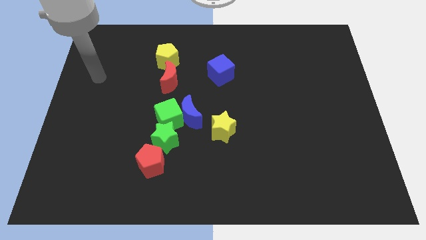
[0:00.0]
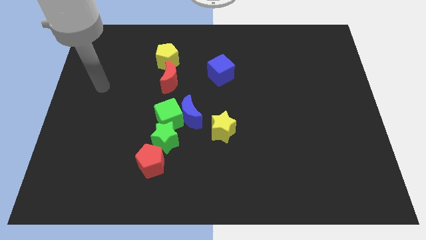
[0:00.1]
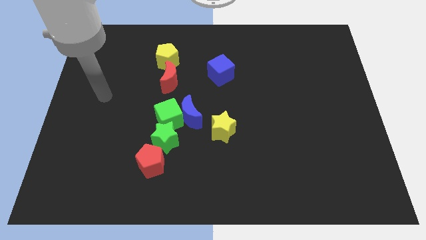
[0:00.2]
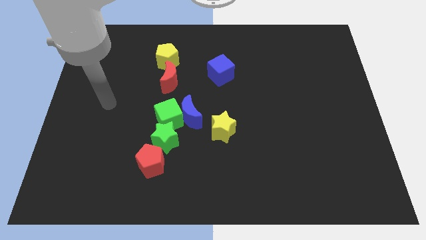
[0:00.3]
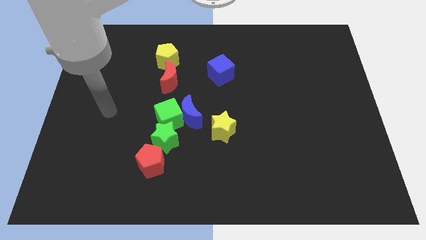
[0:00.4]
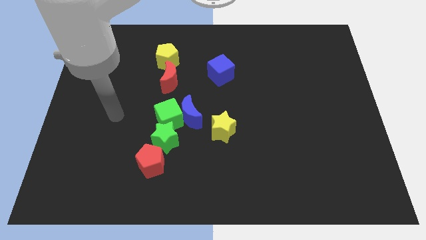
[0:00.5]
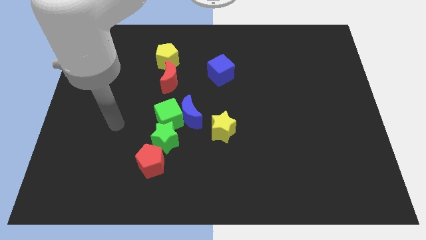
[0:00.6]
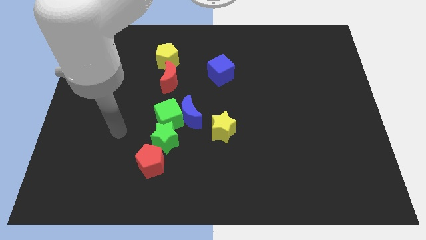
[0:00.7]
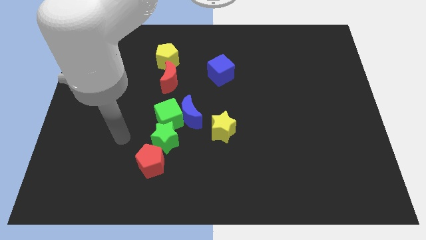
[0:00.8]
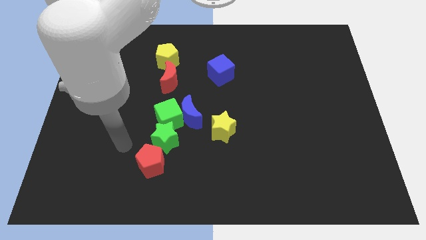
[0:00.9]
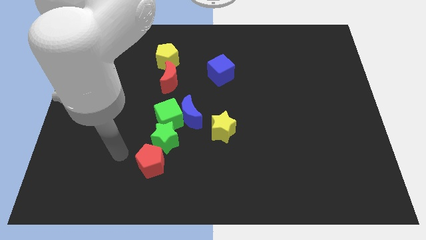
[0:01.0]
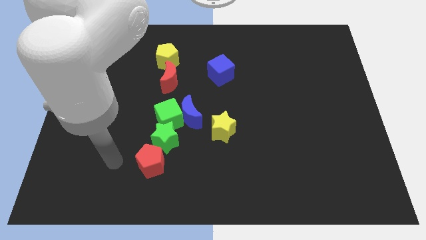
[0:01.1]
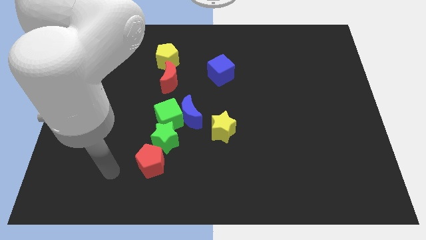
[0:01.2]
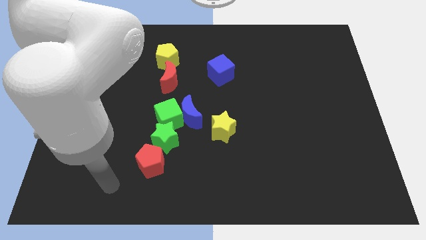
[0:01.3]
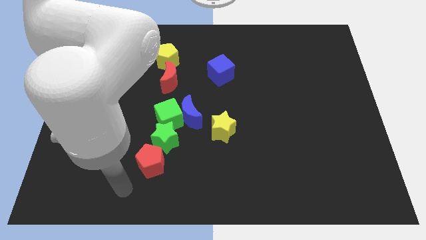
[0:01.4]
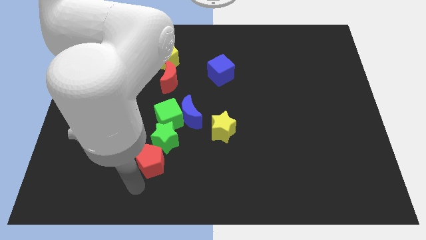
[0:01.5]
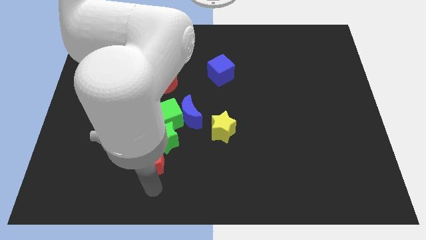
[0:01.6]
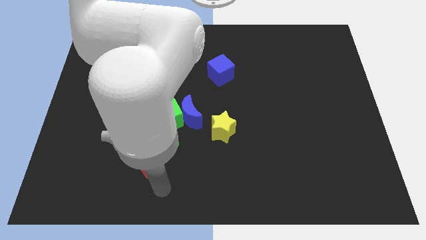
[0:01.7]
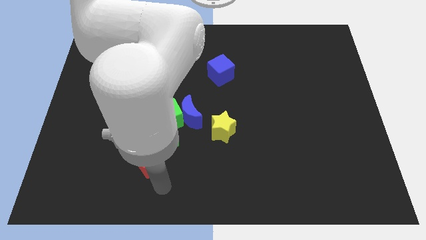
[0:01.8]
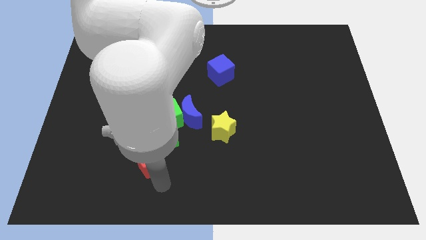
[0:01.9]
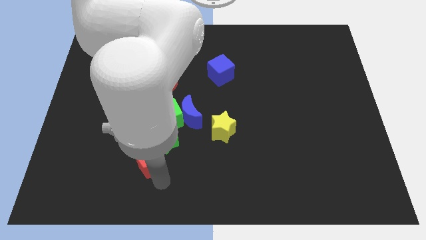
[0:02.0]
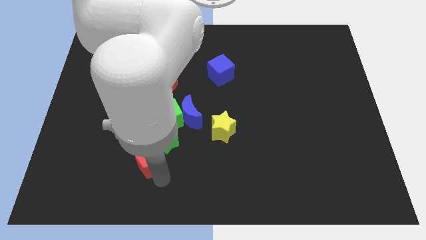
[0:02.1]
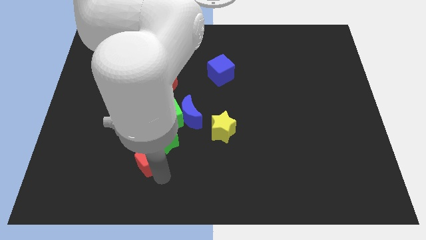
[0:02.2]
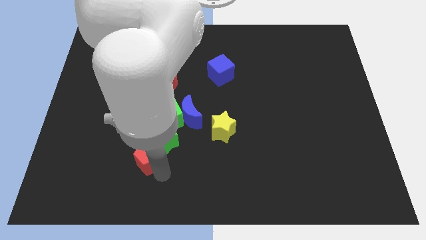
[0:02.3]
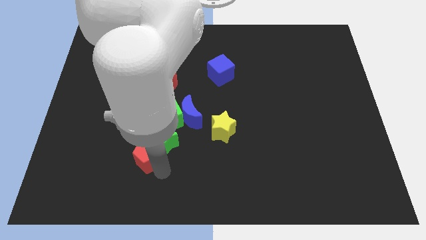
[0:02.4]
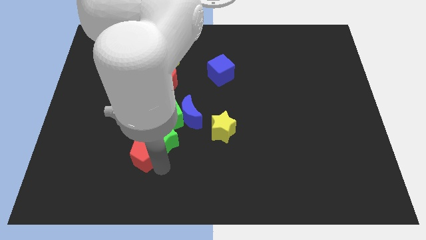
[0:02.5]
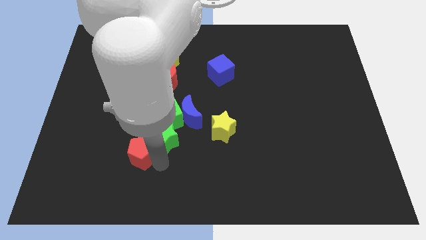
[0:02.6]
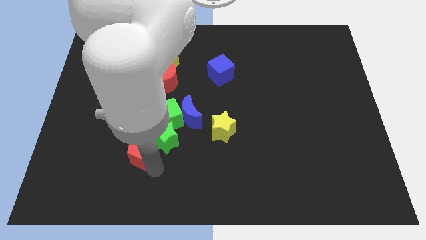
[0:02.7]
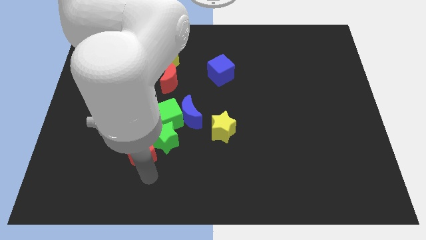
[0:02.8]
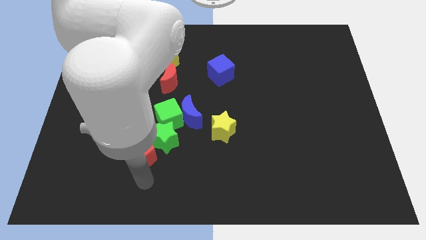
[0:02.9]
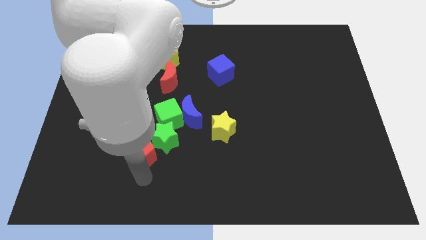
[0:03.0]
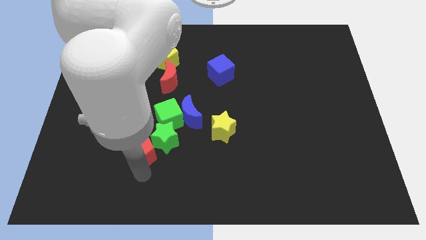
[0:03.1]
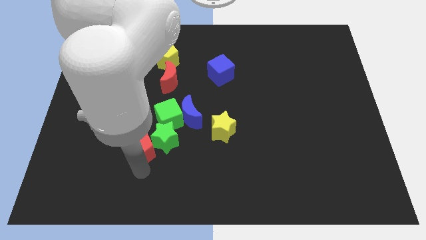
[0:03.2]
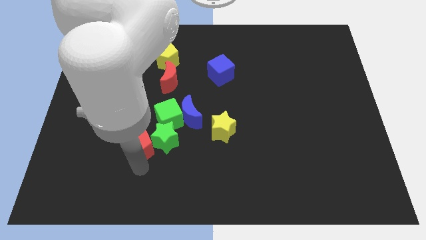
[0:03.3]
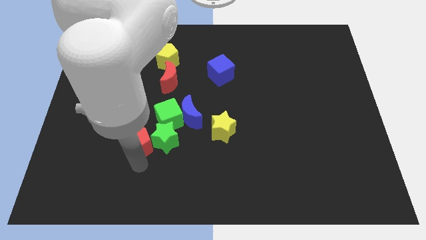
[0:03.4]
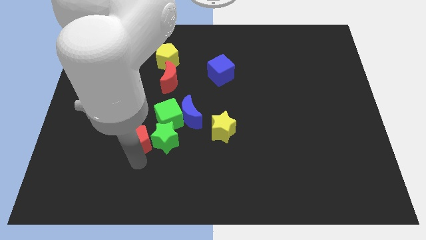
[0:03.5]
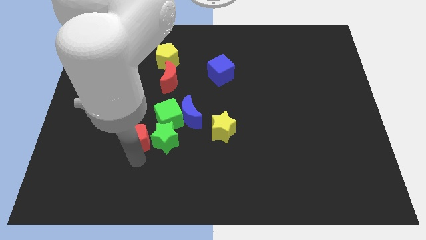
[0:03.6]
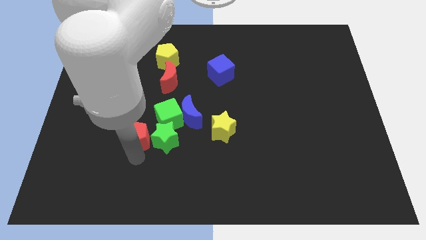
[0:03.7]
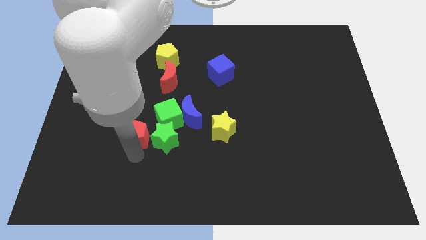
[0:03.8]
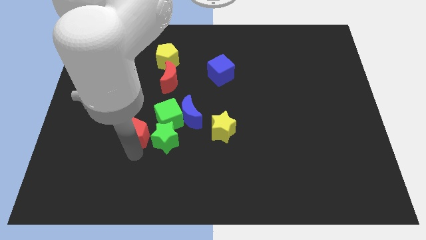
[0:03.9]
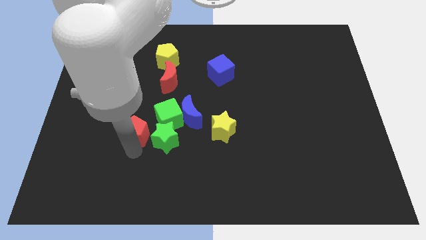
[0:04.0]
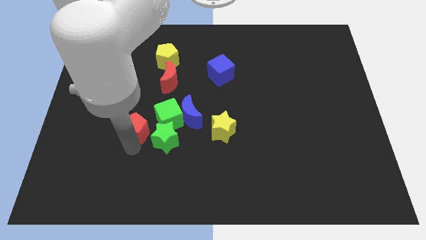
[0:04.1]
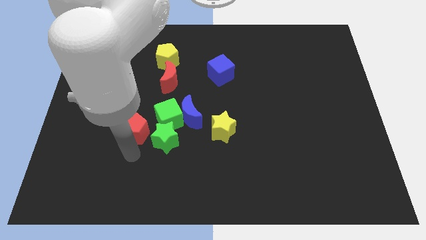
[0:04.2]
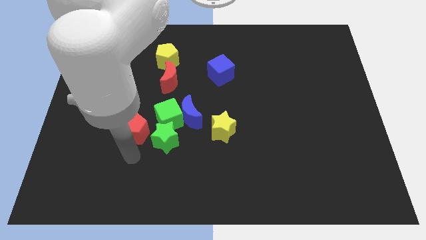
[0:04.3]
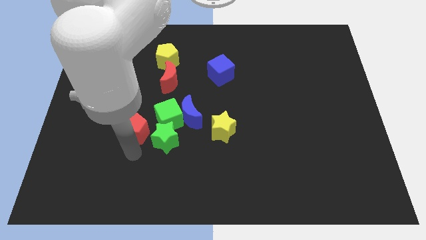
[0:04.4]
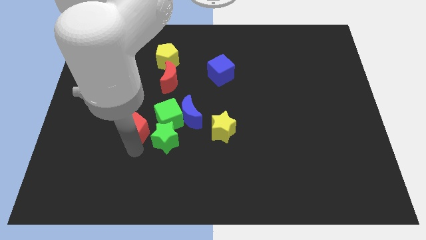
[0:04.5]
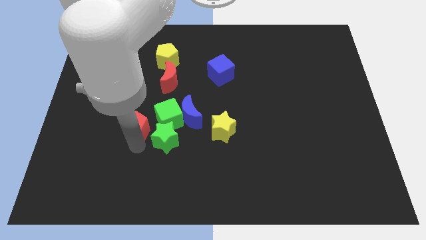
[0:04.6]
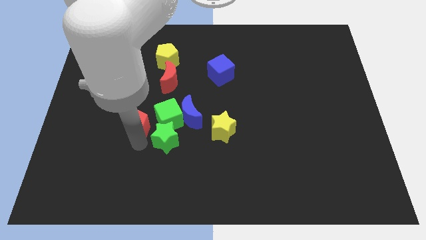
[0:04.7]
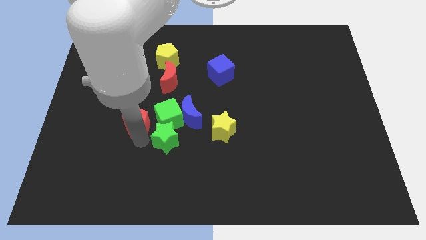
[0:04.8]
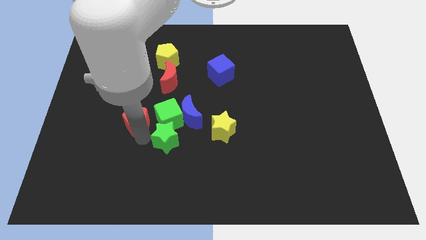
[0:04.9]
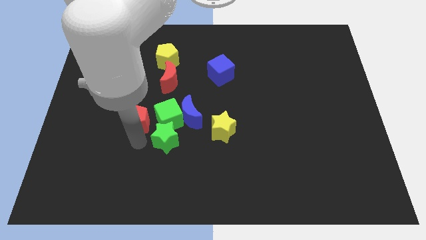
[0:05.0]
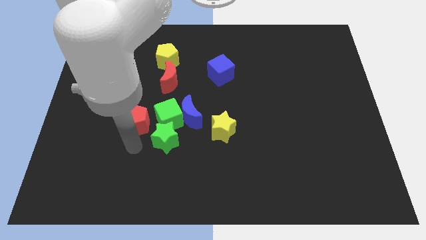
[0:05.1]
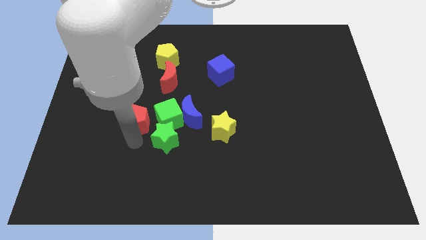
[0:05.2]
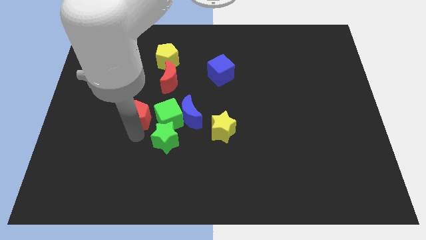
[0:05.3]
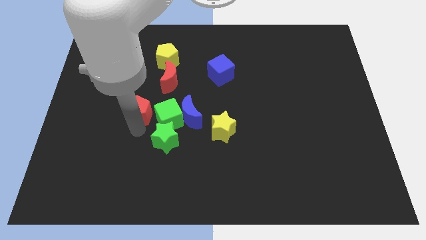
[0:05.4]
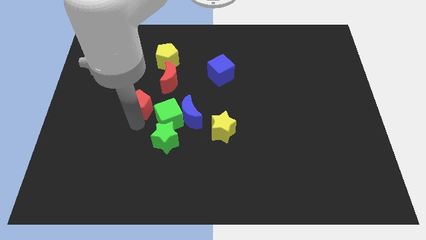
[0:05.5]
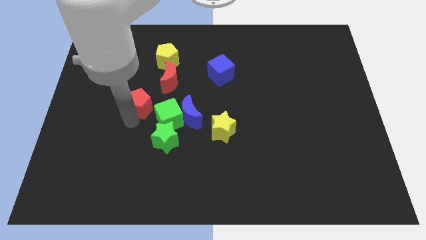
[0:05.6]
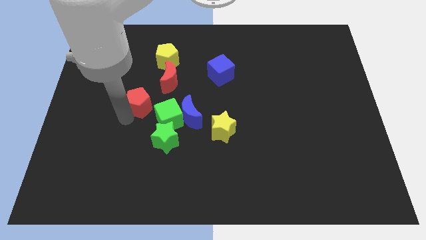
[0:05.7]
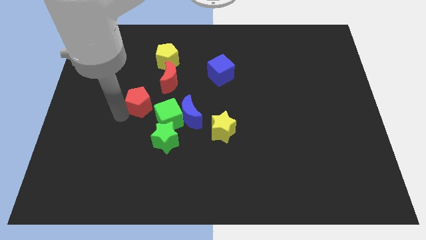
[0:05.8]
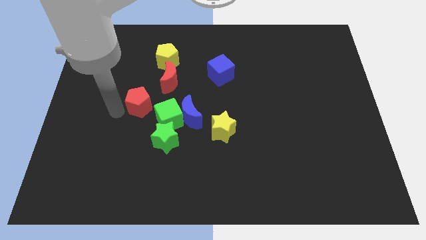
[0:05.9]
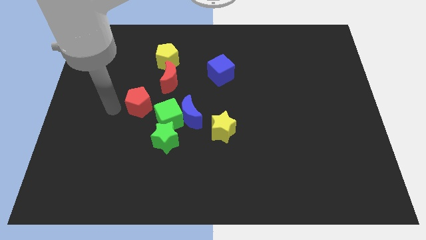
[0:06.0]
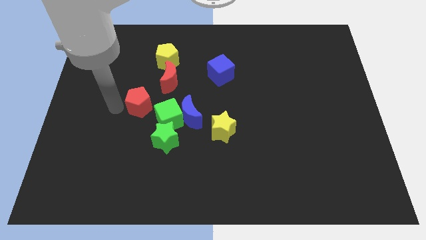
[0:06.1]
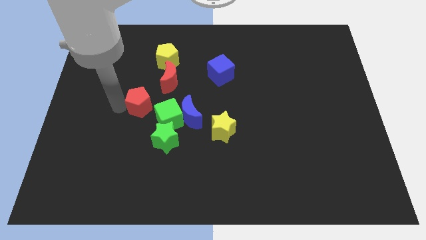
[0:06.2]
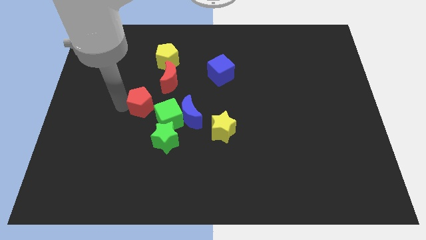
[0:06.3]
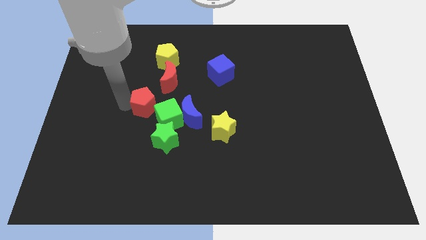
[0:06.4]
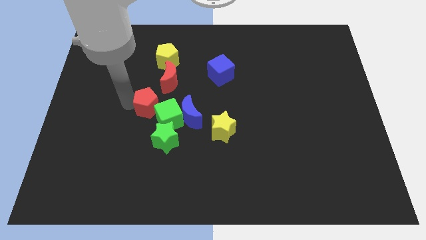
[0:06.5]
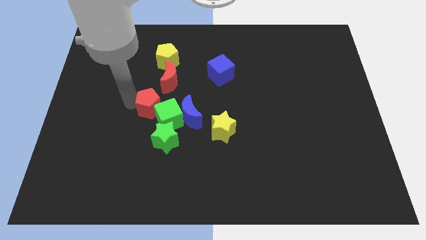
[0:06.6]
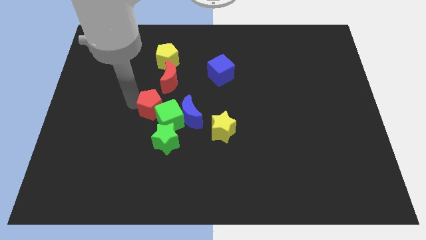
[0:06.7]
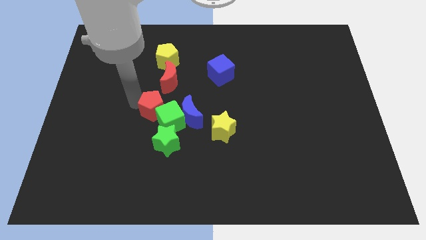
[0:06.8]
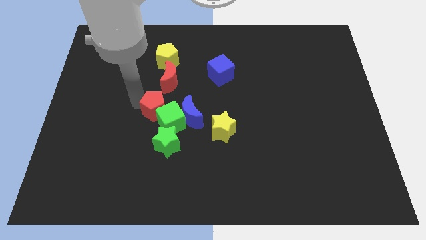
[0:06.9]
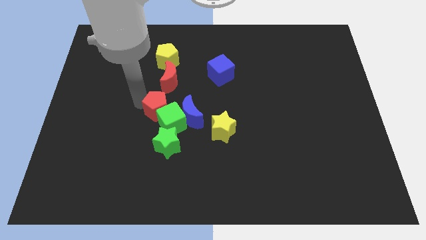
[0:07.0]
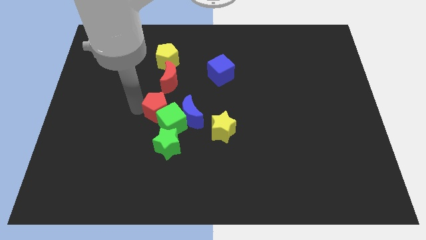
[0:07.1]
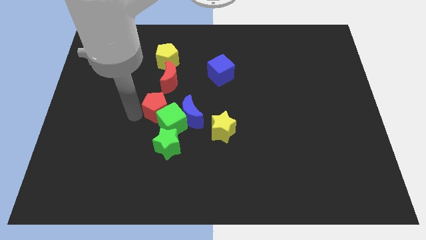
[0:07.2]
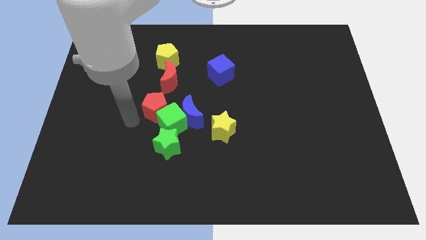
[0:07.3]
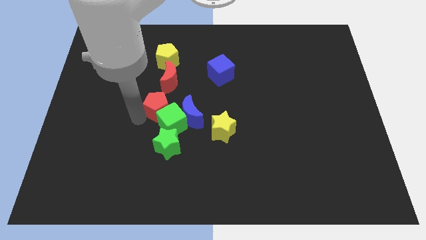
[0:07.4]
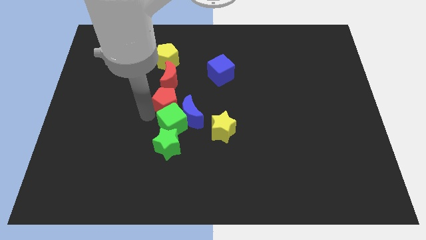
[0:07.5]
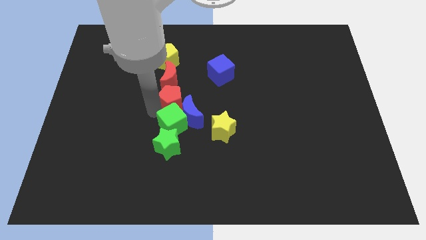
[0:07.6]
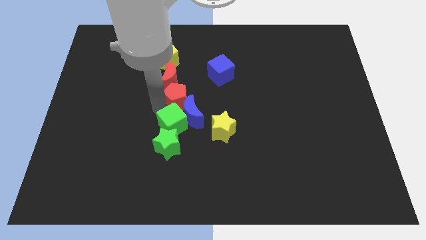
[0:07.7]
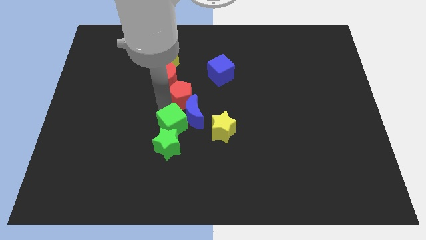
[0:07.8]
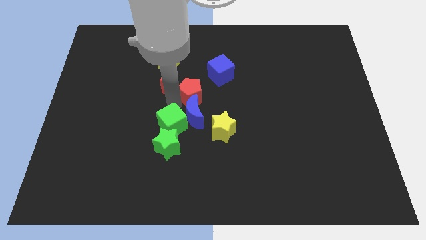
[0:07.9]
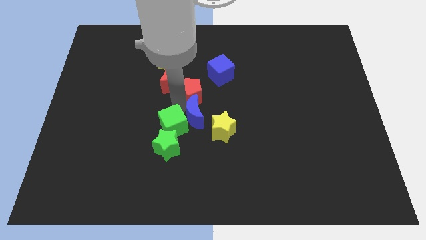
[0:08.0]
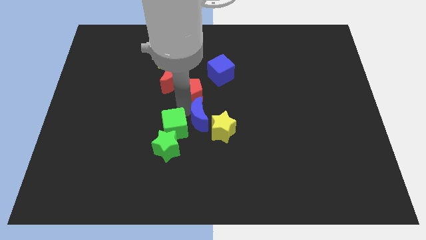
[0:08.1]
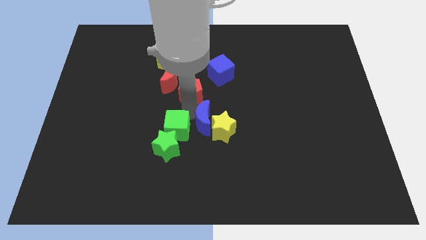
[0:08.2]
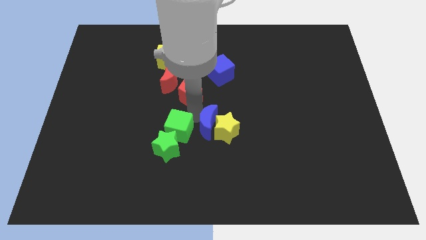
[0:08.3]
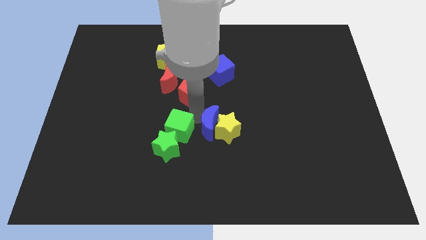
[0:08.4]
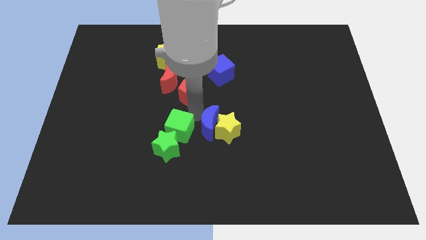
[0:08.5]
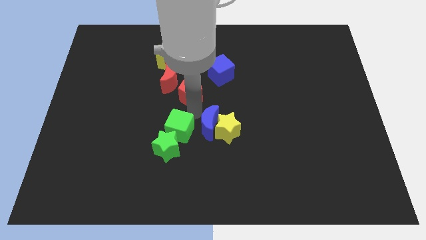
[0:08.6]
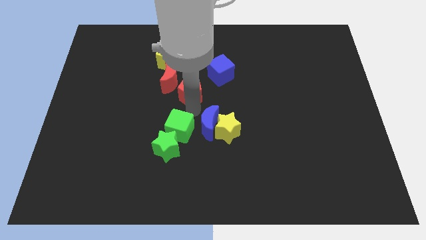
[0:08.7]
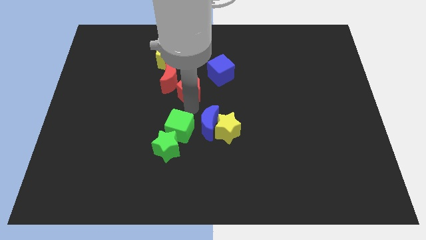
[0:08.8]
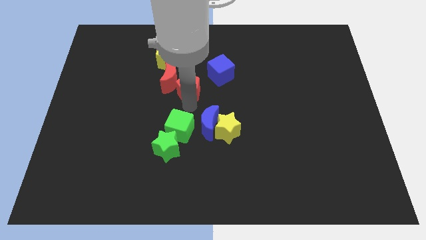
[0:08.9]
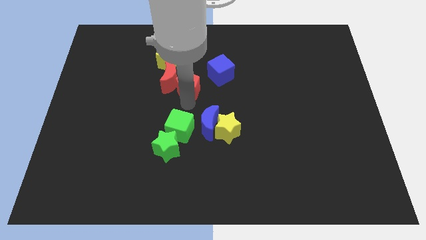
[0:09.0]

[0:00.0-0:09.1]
slide the red pentagon to the bottom right side of the yellow pentagon
